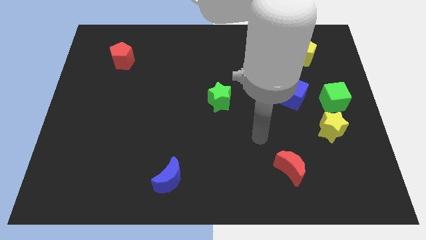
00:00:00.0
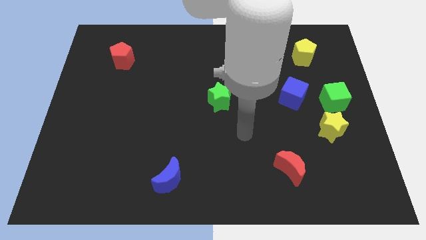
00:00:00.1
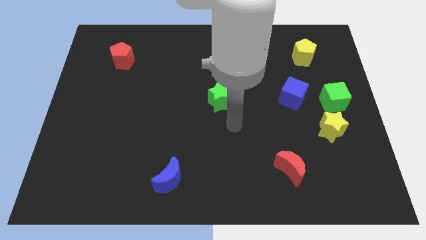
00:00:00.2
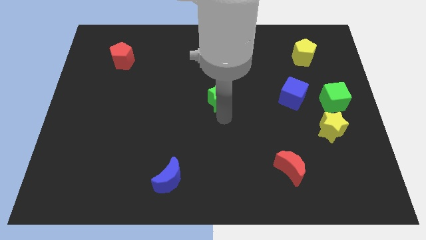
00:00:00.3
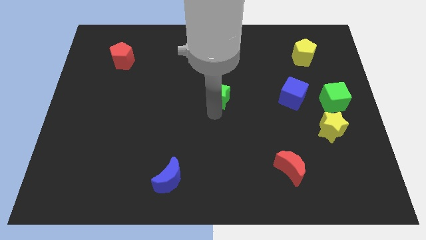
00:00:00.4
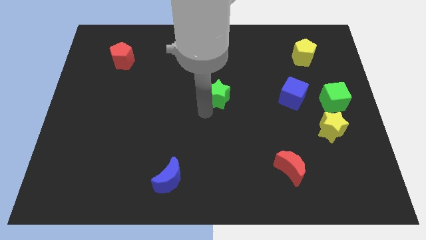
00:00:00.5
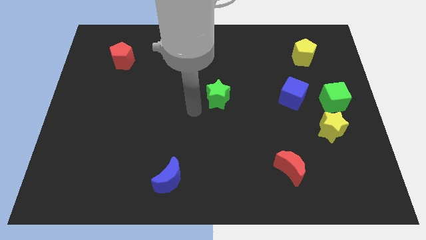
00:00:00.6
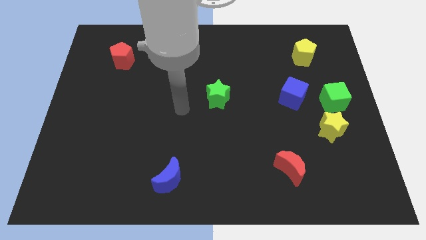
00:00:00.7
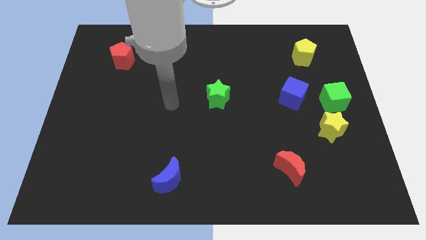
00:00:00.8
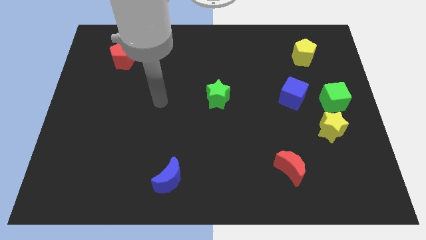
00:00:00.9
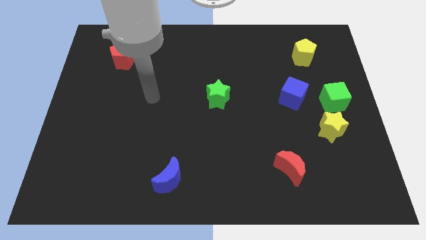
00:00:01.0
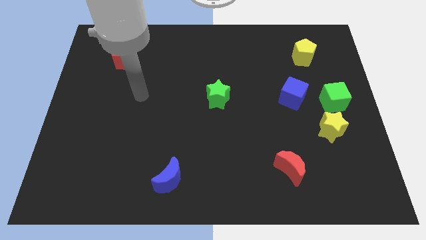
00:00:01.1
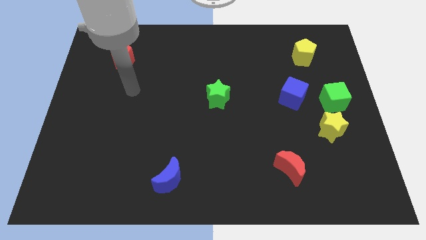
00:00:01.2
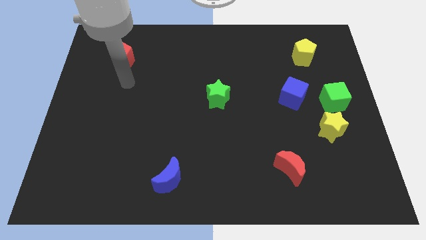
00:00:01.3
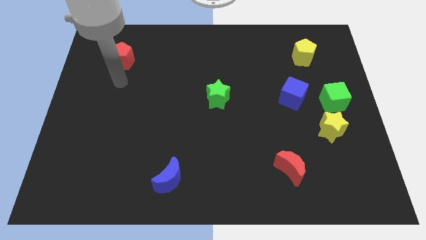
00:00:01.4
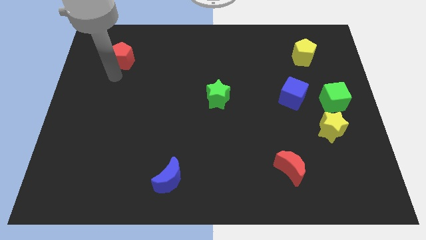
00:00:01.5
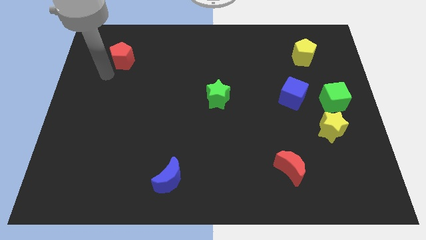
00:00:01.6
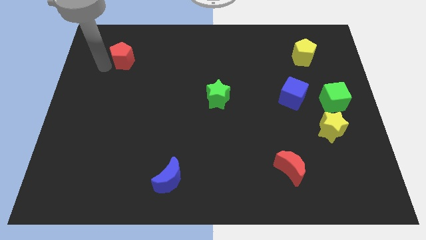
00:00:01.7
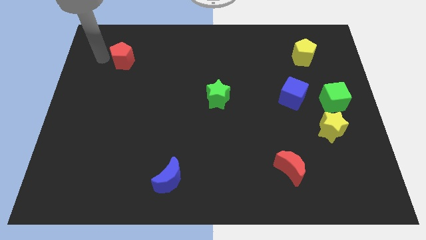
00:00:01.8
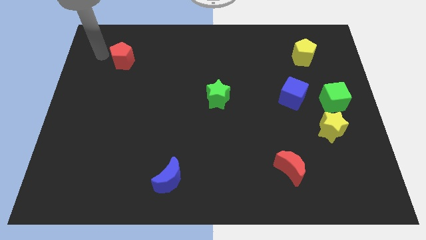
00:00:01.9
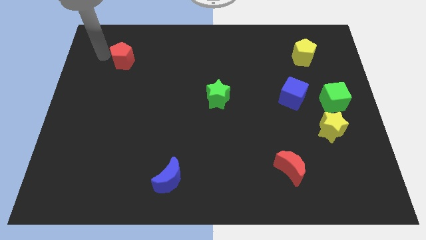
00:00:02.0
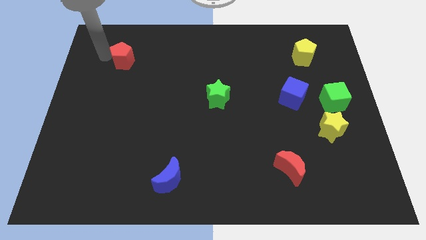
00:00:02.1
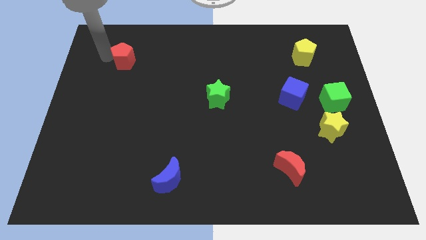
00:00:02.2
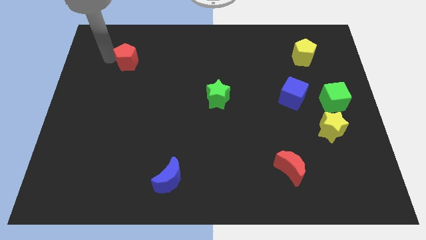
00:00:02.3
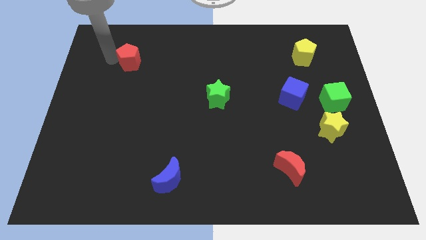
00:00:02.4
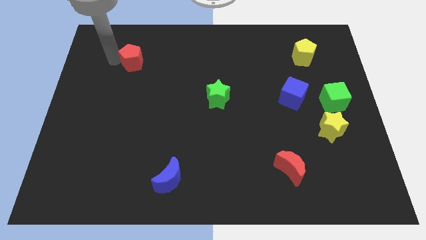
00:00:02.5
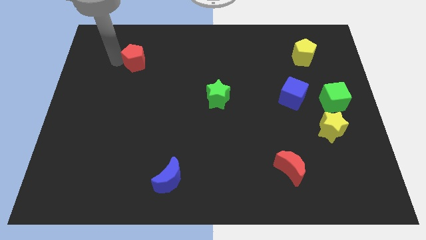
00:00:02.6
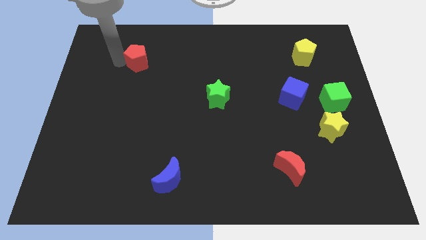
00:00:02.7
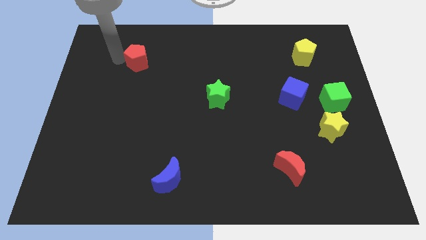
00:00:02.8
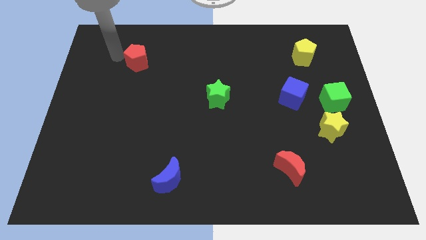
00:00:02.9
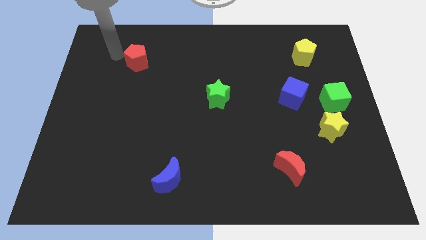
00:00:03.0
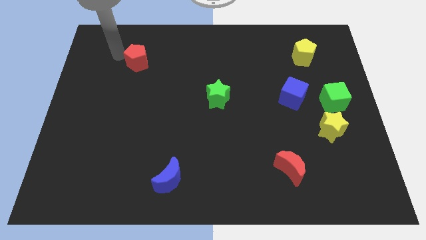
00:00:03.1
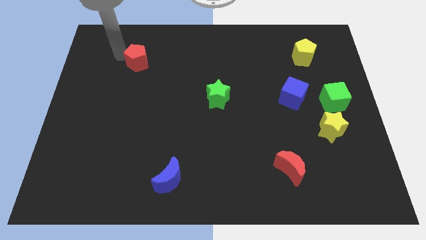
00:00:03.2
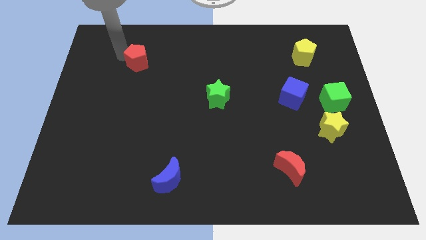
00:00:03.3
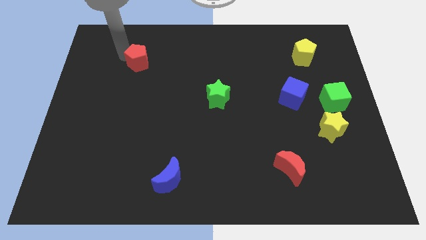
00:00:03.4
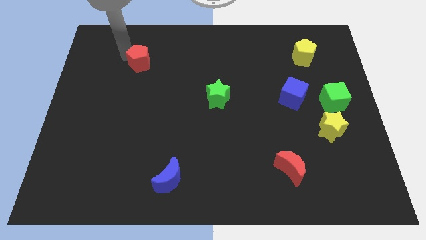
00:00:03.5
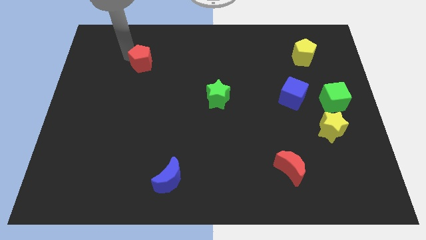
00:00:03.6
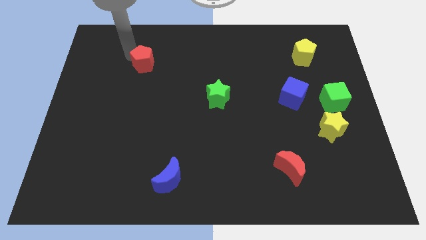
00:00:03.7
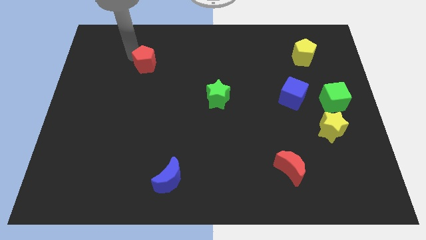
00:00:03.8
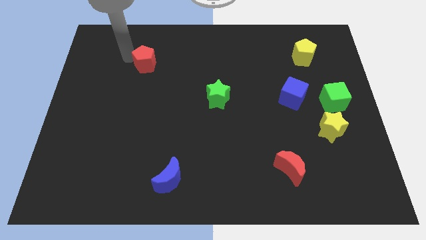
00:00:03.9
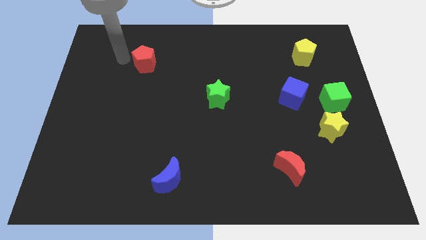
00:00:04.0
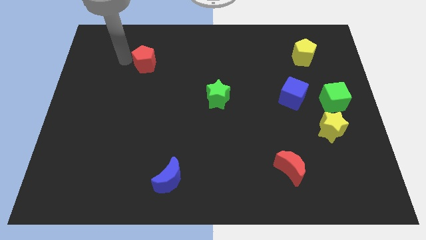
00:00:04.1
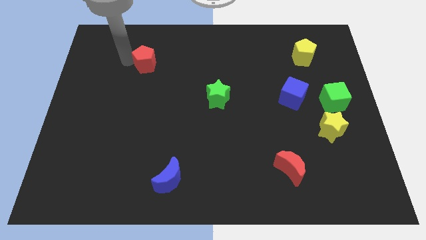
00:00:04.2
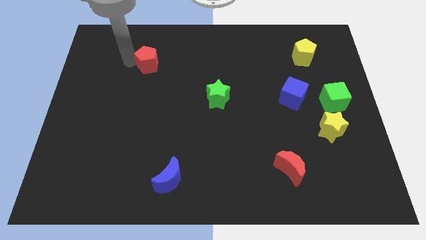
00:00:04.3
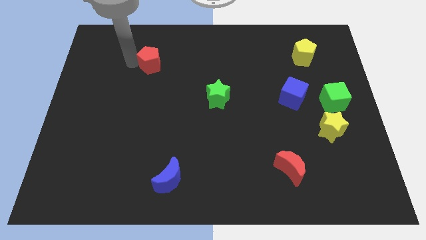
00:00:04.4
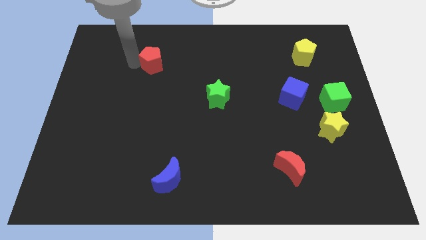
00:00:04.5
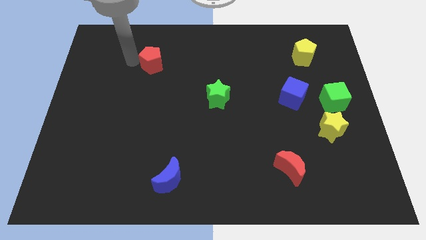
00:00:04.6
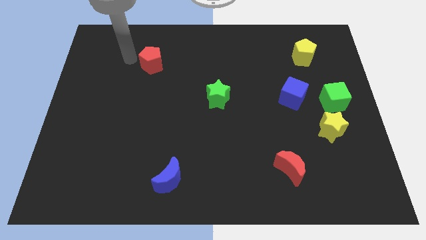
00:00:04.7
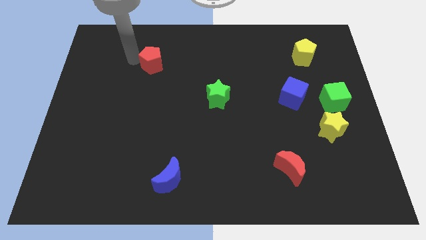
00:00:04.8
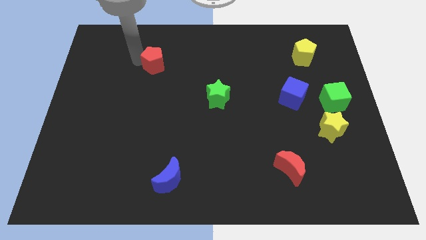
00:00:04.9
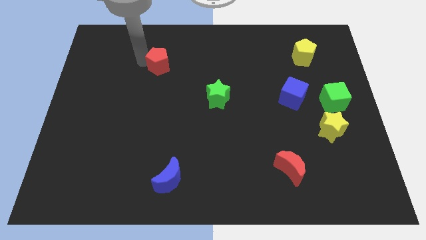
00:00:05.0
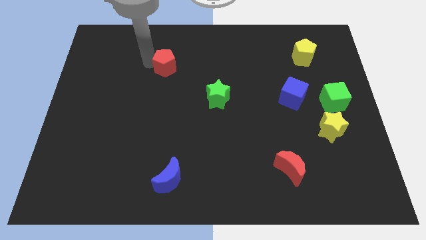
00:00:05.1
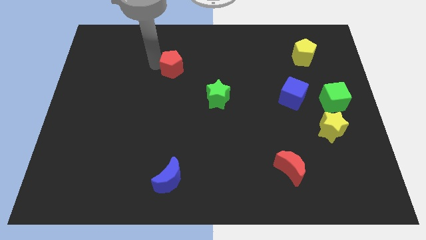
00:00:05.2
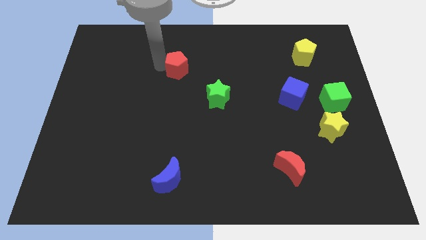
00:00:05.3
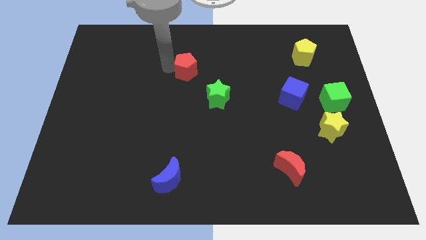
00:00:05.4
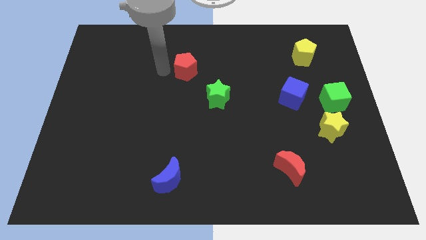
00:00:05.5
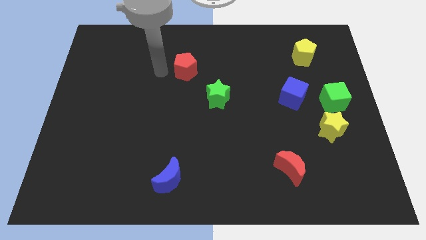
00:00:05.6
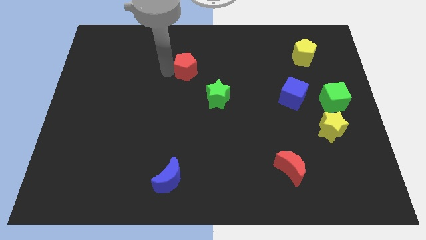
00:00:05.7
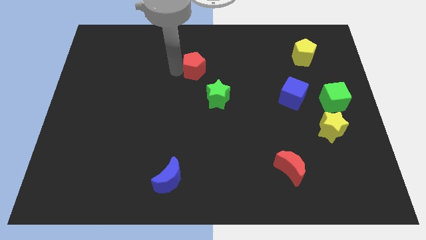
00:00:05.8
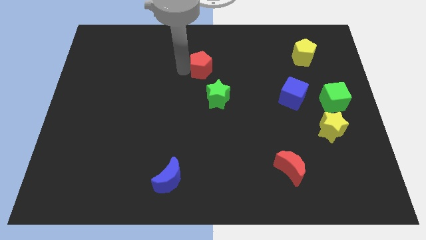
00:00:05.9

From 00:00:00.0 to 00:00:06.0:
push the red pentagon to the top of the green star

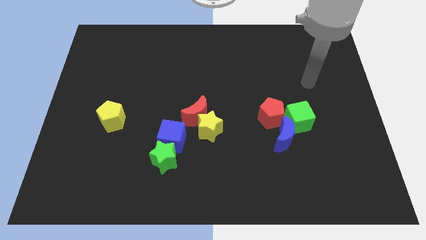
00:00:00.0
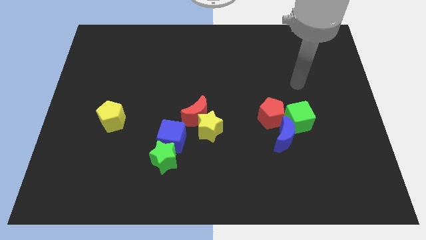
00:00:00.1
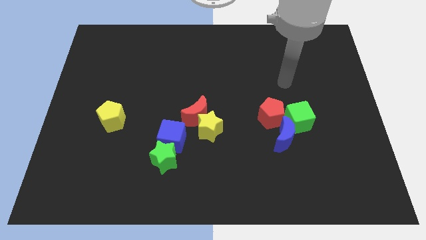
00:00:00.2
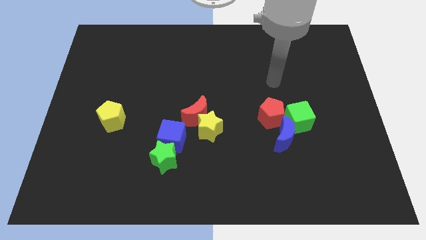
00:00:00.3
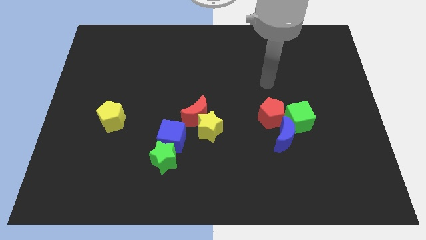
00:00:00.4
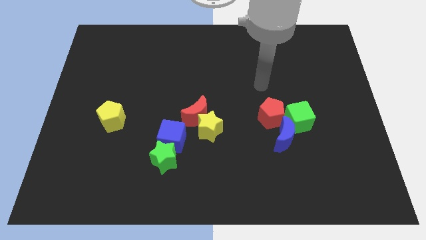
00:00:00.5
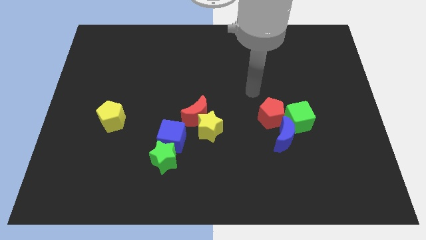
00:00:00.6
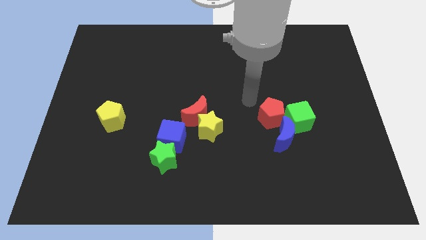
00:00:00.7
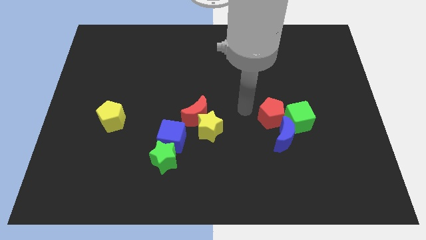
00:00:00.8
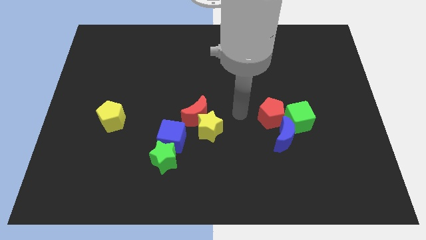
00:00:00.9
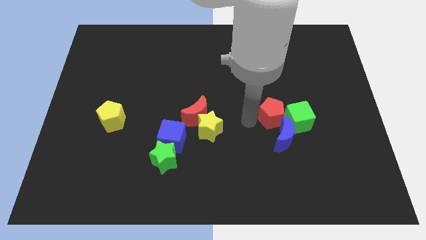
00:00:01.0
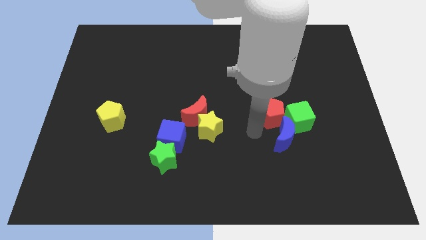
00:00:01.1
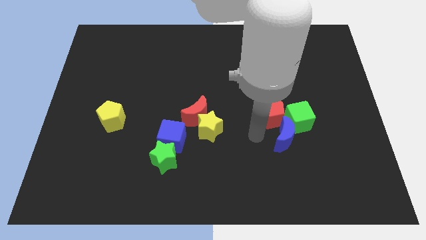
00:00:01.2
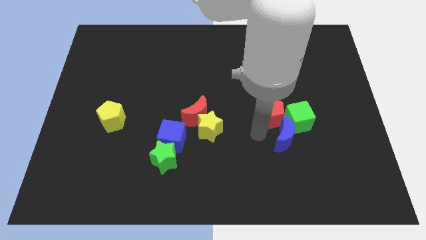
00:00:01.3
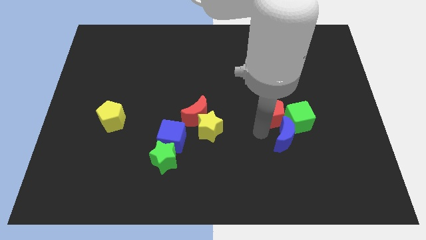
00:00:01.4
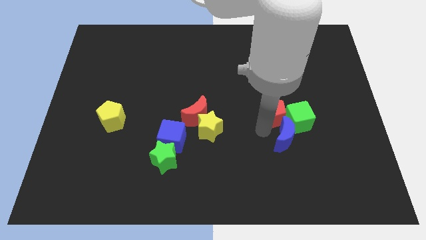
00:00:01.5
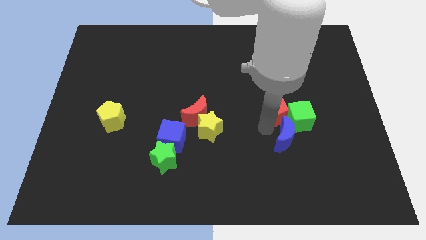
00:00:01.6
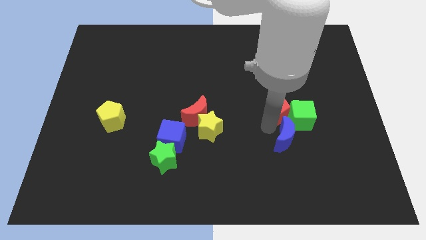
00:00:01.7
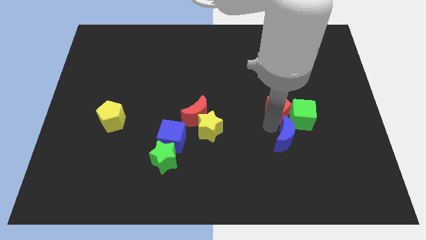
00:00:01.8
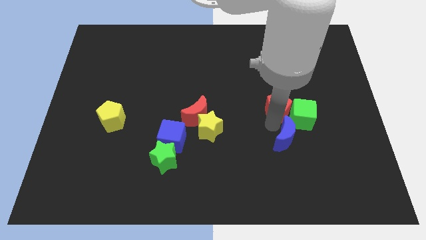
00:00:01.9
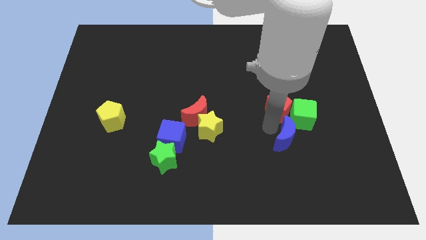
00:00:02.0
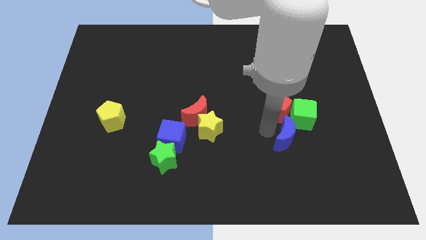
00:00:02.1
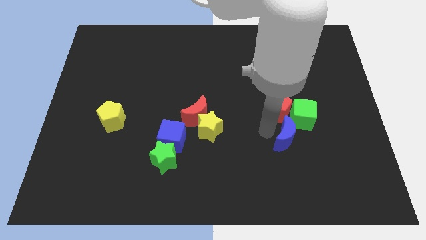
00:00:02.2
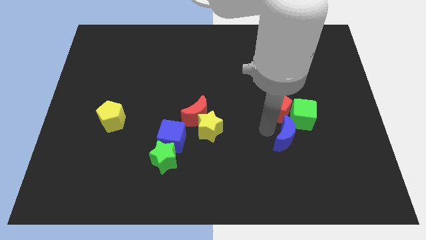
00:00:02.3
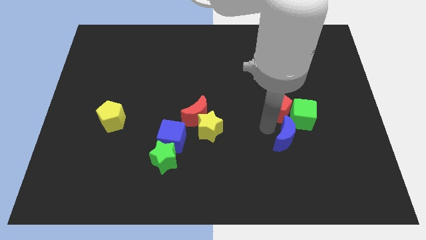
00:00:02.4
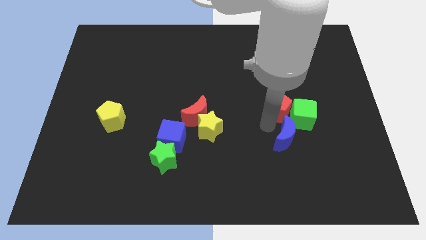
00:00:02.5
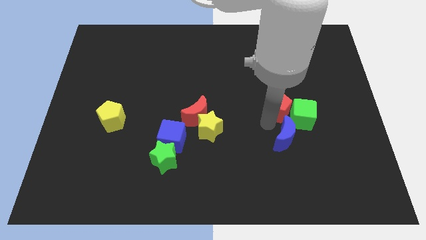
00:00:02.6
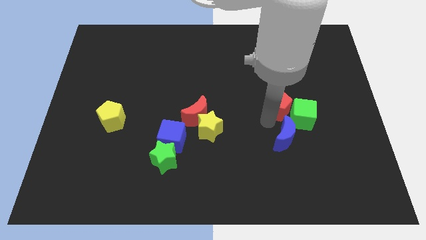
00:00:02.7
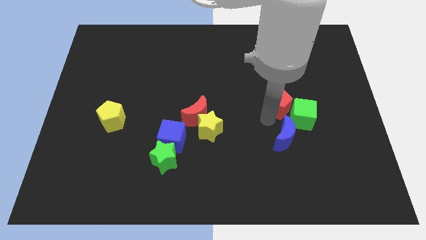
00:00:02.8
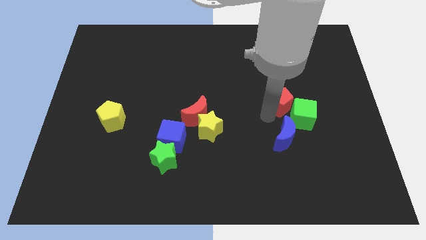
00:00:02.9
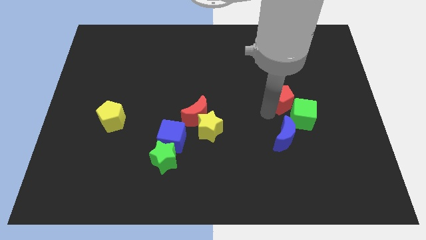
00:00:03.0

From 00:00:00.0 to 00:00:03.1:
put the red pentagon to the top side of the green cube
